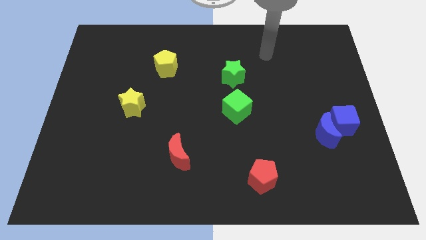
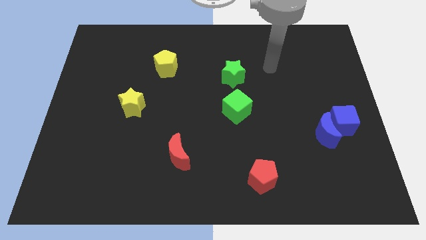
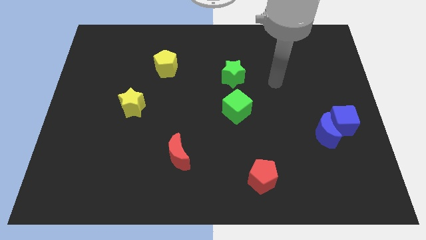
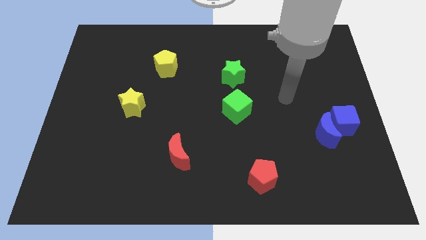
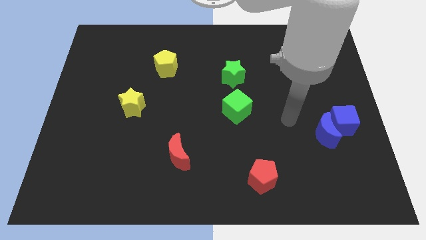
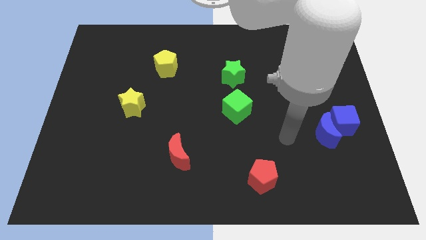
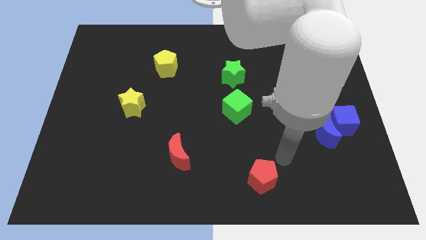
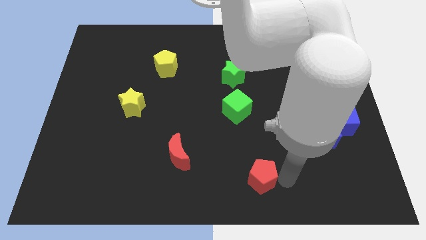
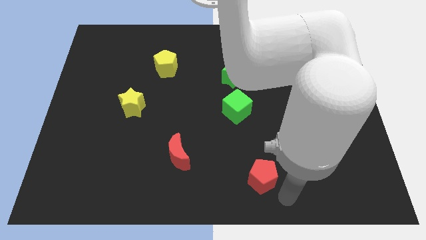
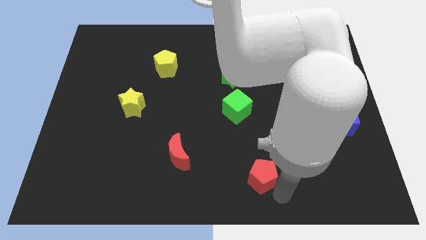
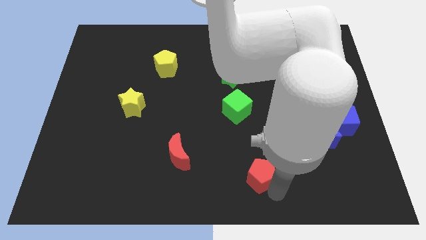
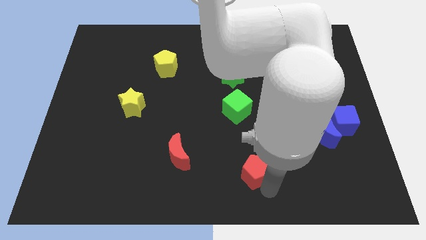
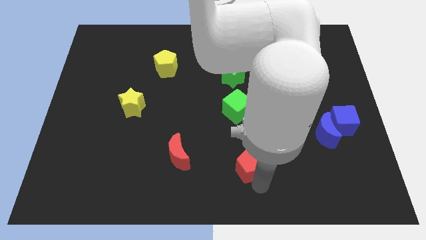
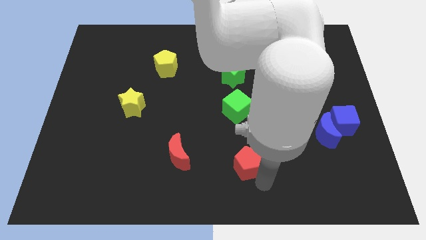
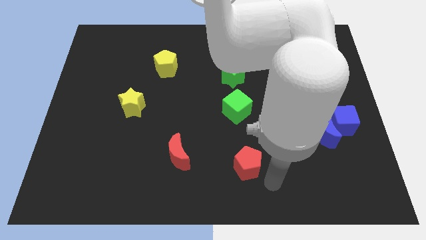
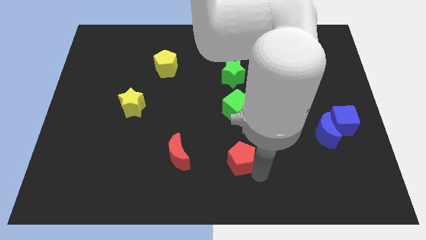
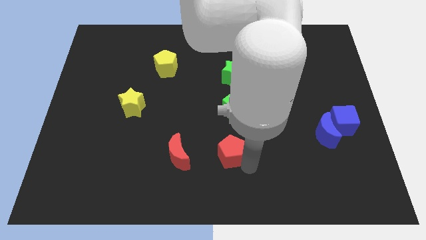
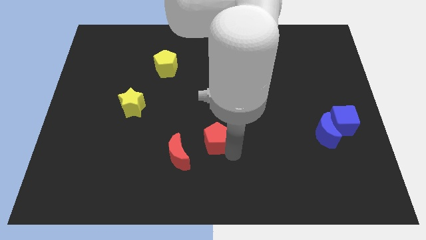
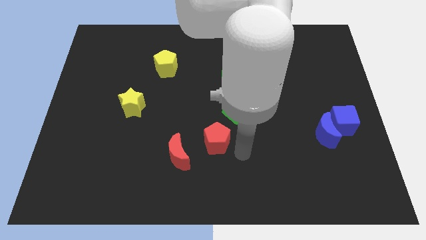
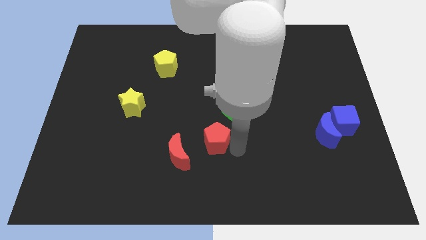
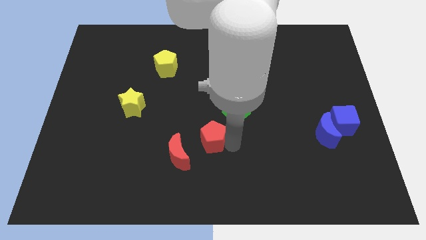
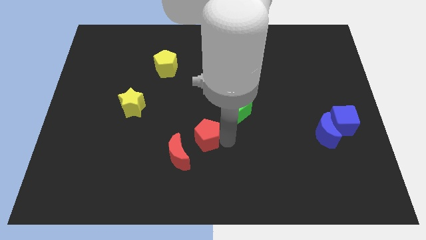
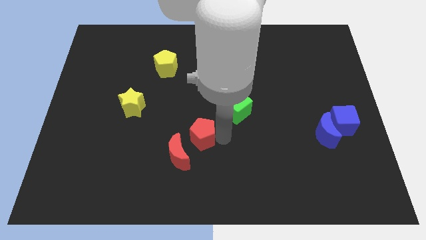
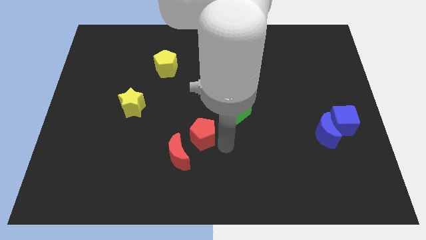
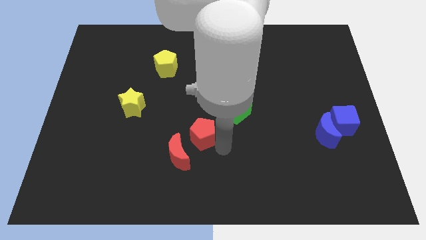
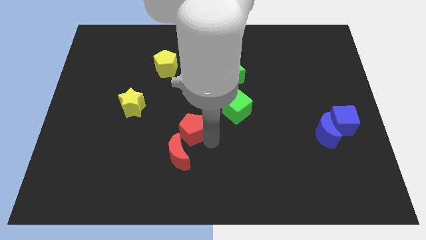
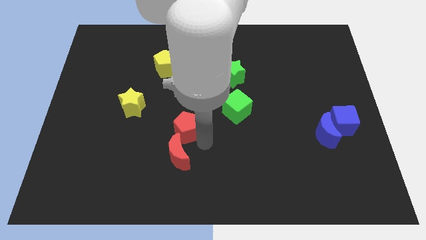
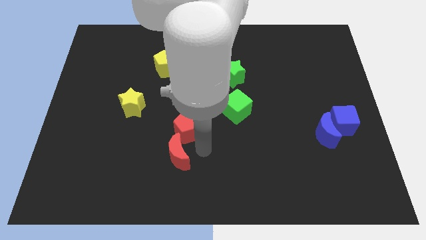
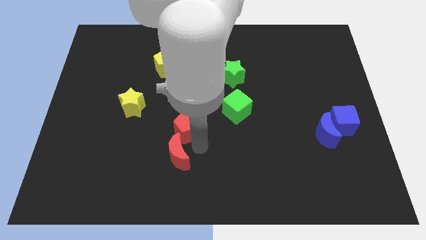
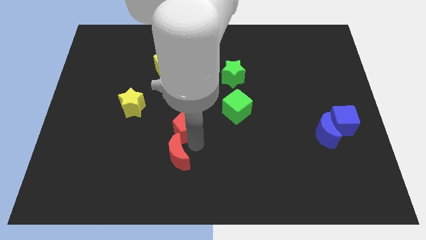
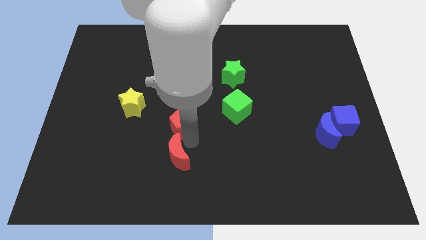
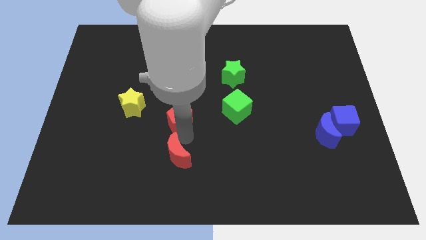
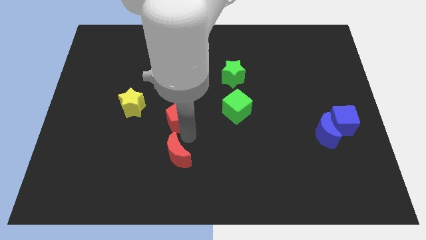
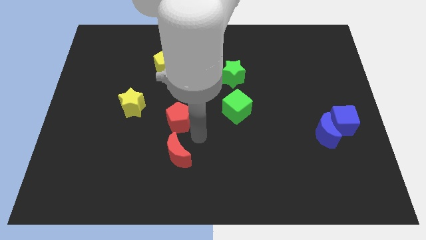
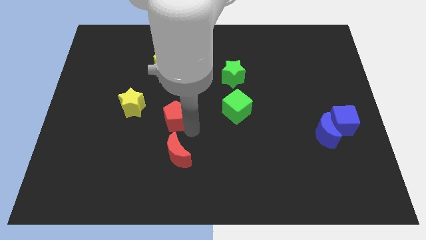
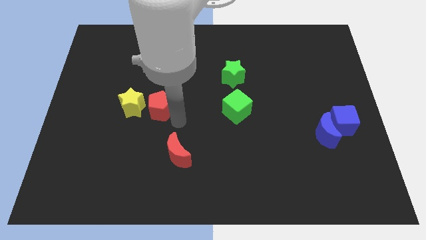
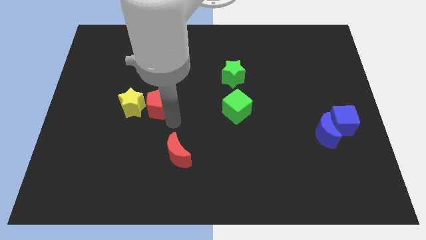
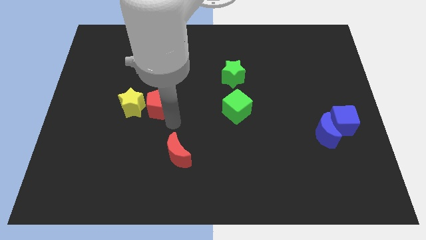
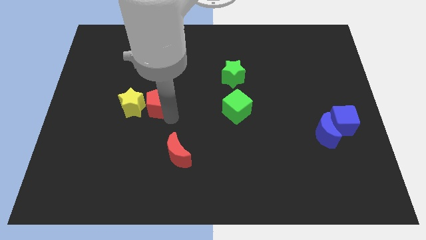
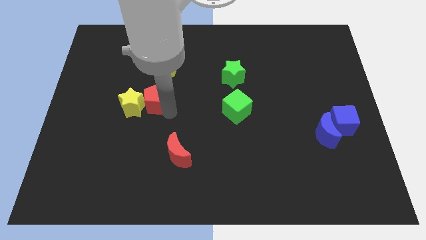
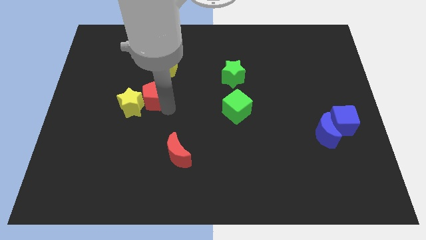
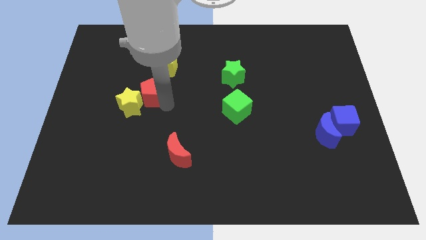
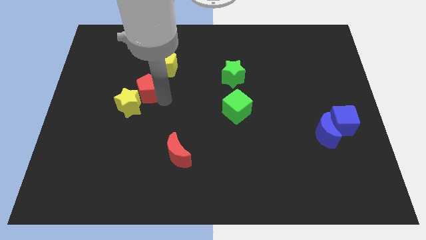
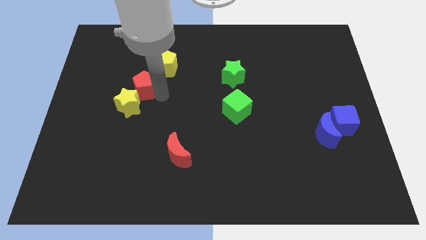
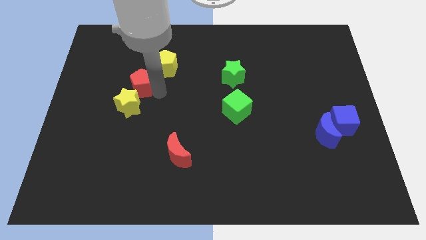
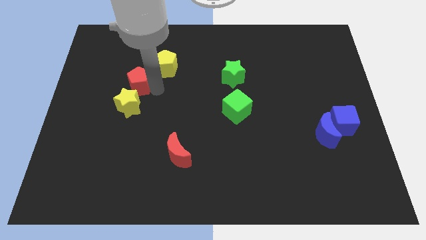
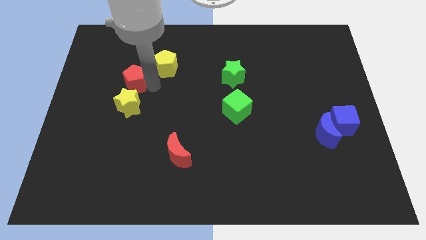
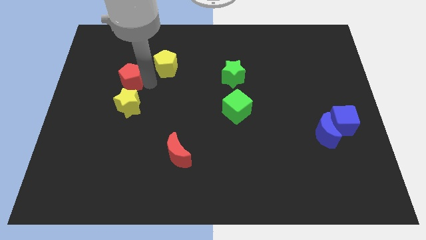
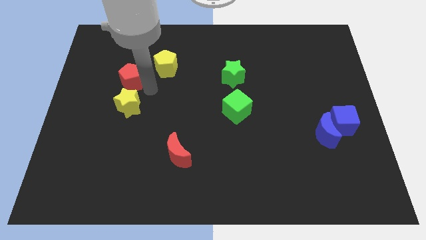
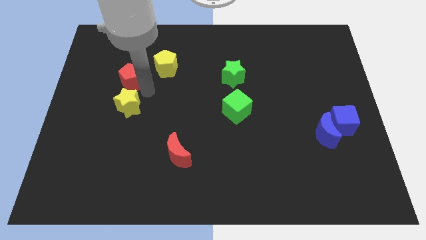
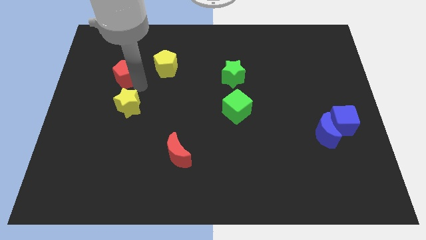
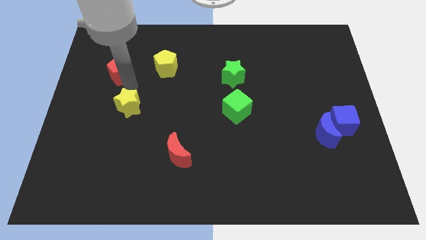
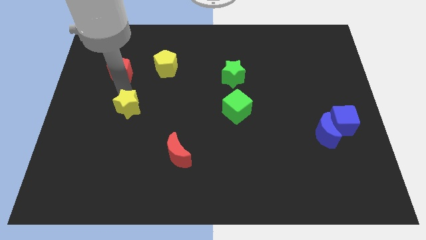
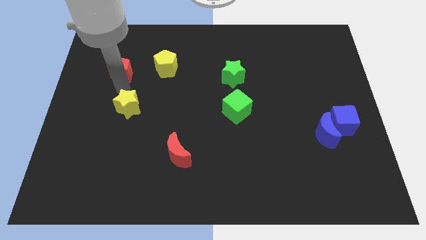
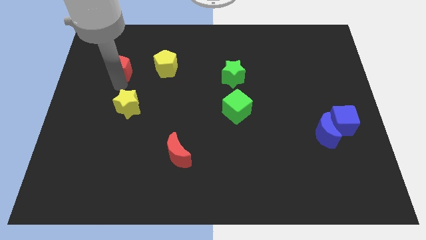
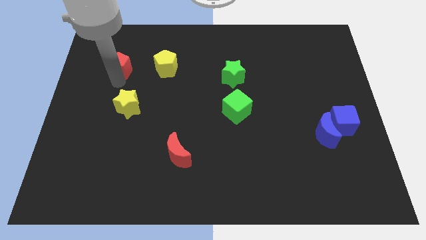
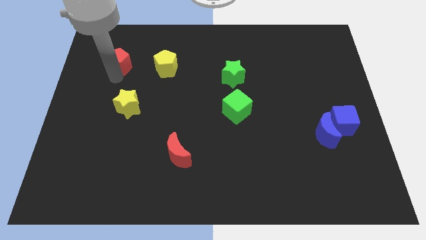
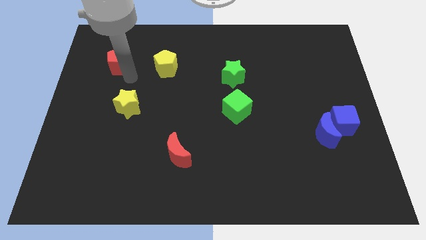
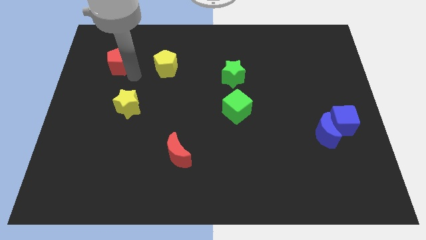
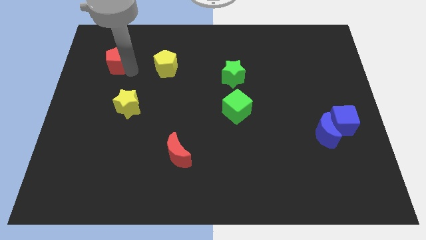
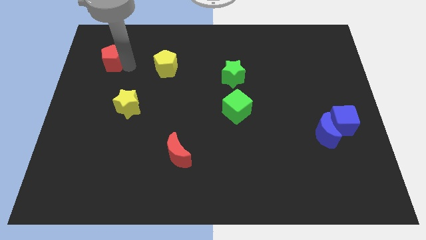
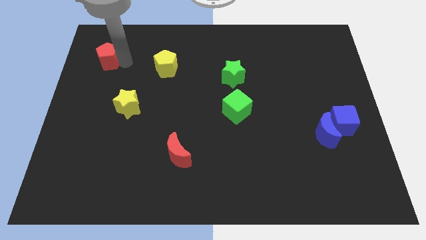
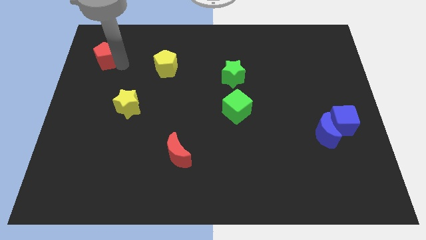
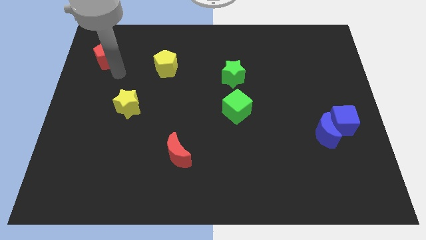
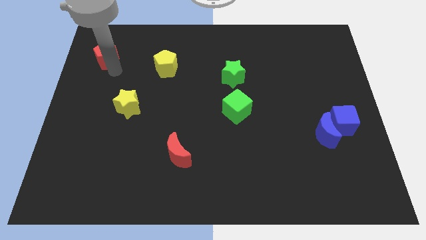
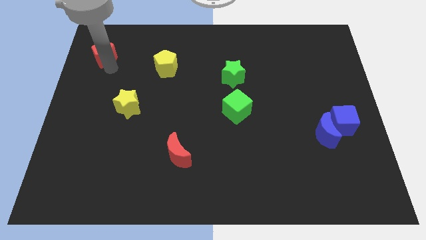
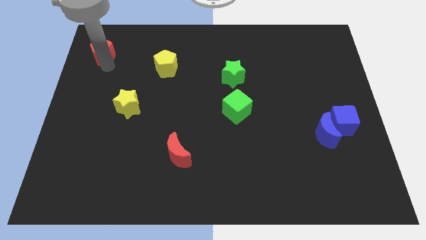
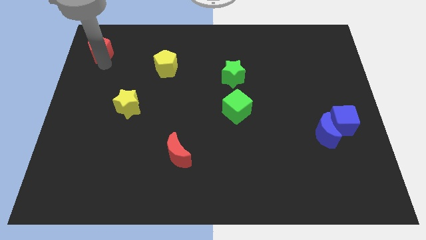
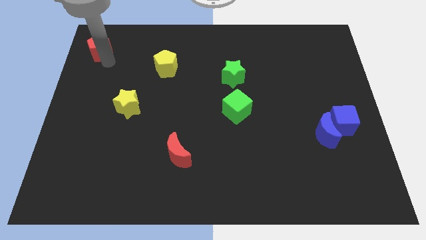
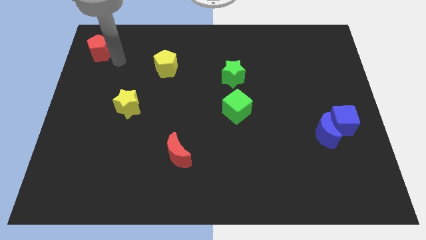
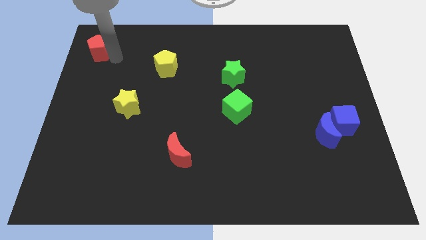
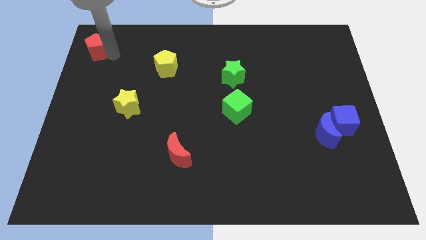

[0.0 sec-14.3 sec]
put the red pentagon to the top left corner
